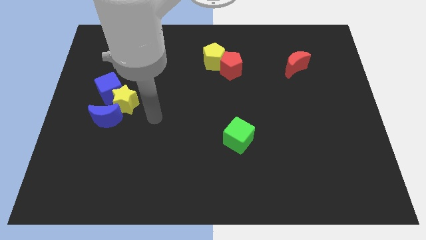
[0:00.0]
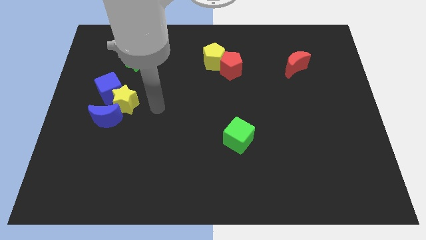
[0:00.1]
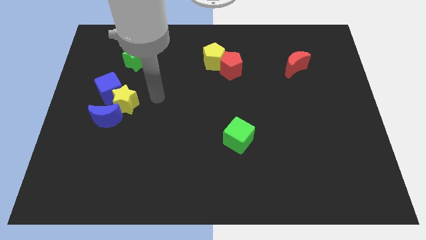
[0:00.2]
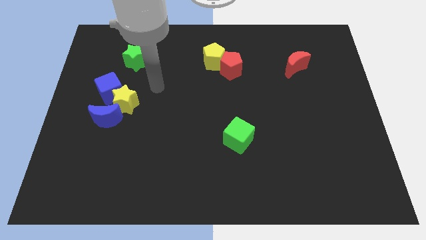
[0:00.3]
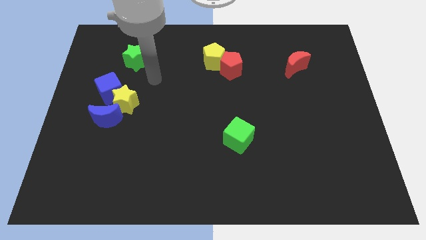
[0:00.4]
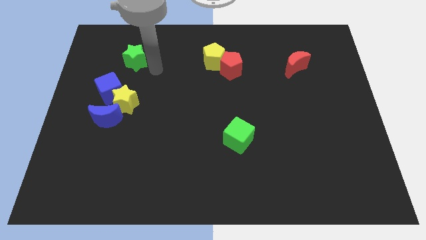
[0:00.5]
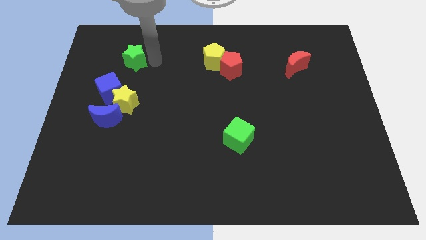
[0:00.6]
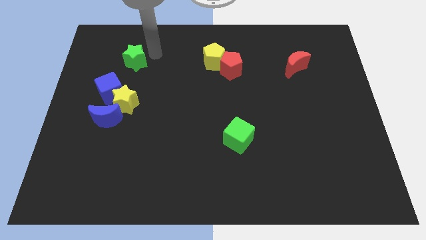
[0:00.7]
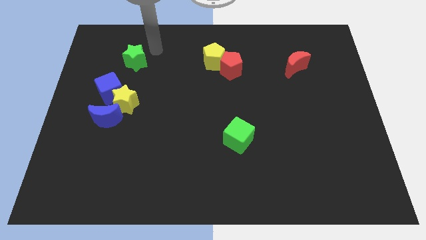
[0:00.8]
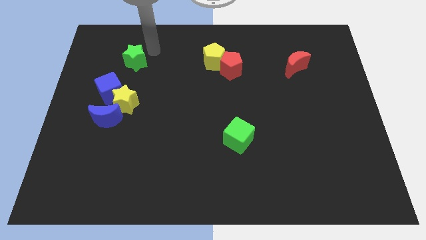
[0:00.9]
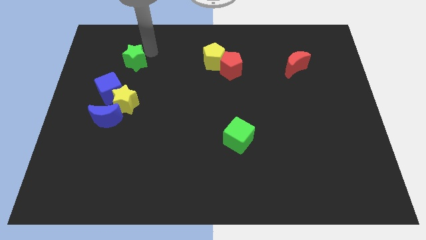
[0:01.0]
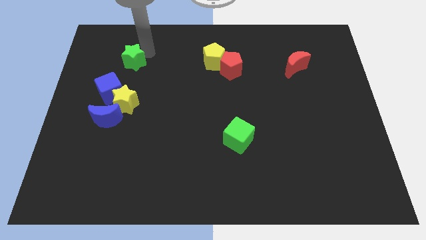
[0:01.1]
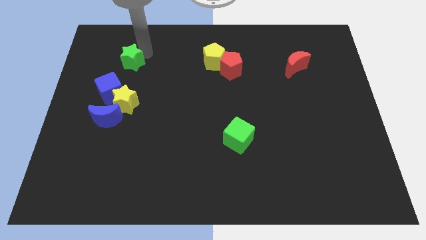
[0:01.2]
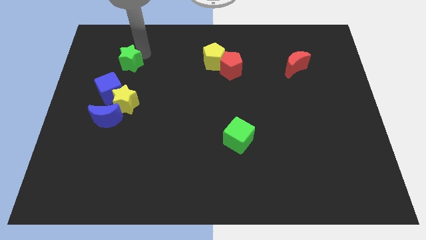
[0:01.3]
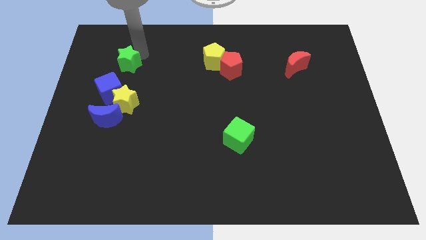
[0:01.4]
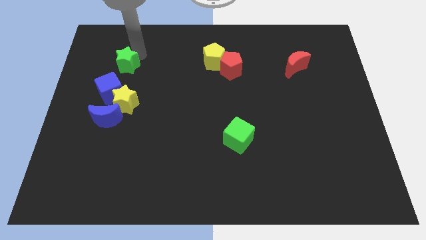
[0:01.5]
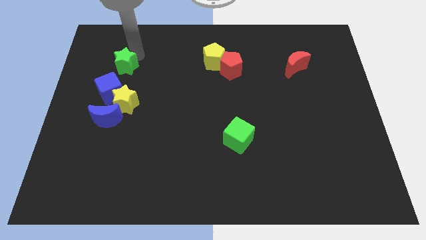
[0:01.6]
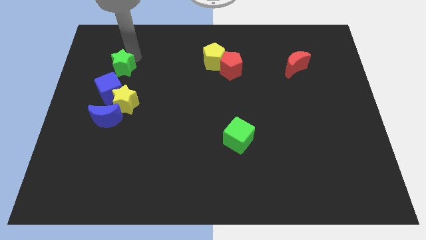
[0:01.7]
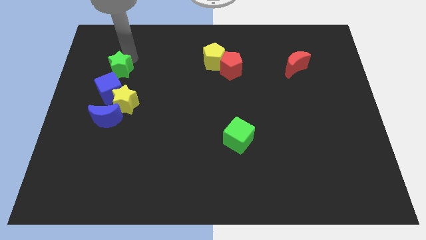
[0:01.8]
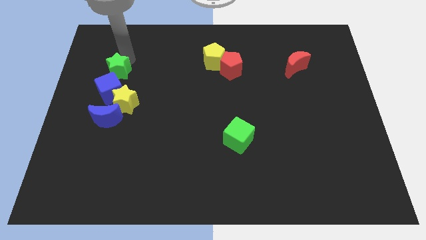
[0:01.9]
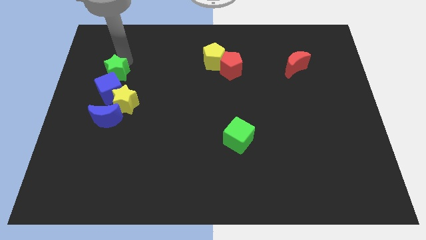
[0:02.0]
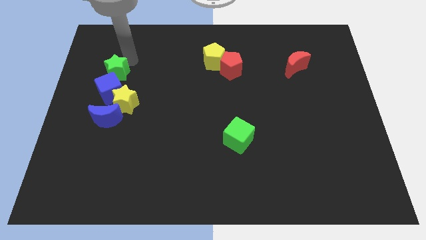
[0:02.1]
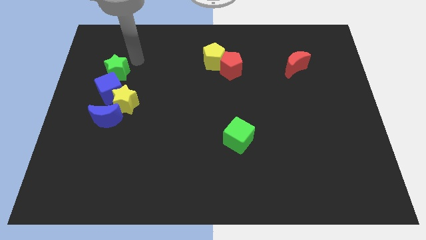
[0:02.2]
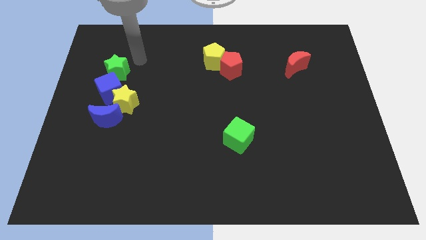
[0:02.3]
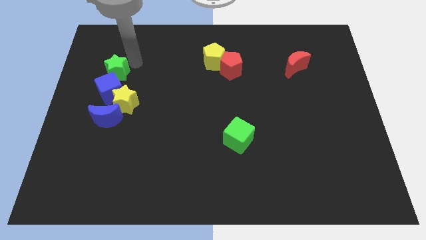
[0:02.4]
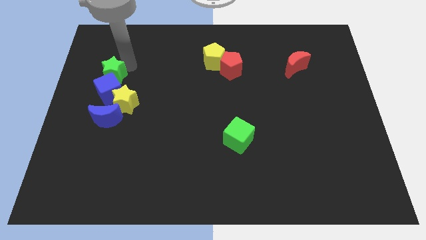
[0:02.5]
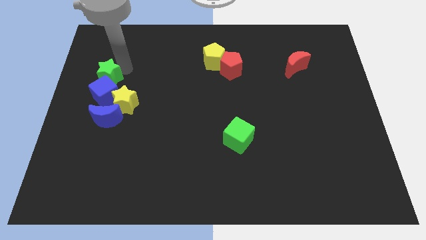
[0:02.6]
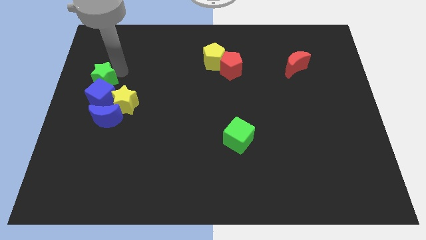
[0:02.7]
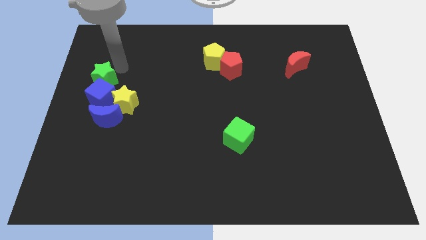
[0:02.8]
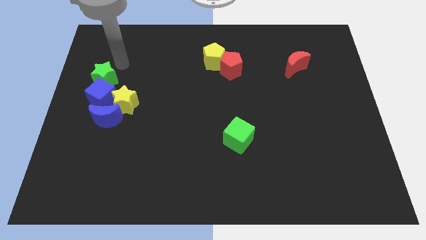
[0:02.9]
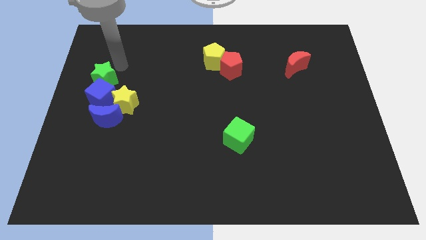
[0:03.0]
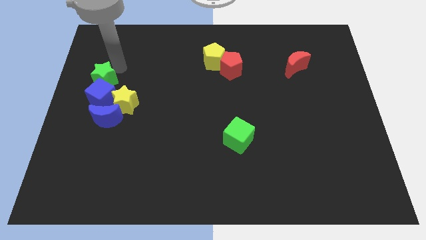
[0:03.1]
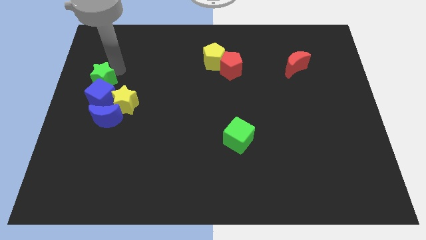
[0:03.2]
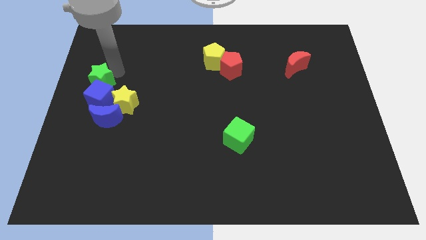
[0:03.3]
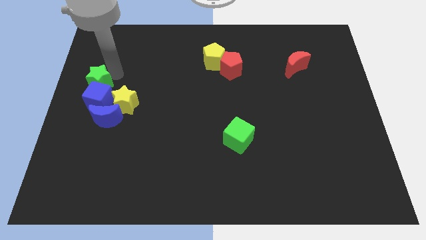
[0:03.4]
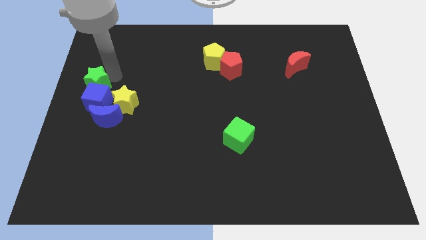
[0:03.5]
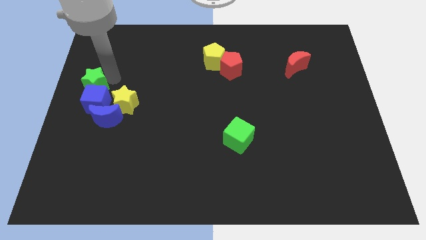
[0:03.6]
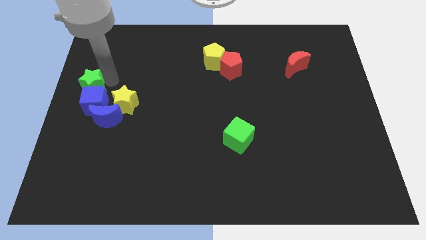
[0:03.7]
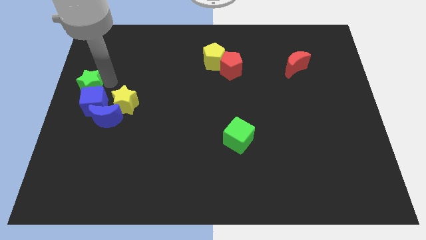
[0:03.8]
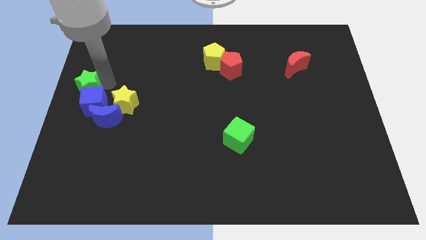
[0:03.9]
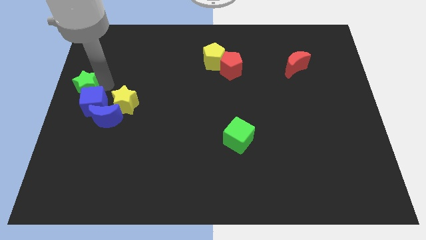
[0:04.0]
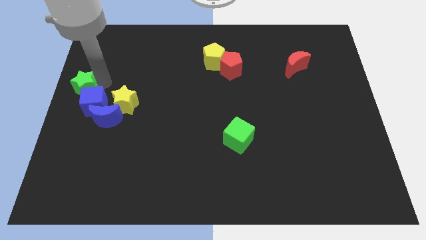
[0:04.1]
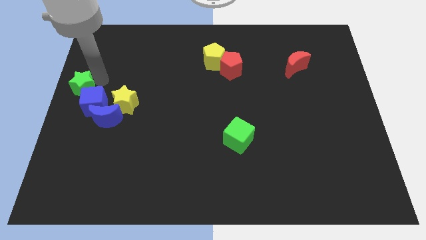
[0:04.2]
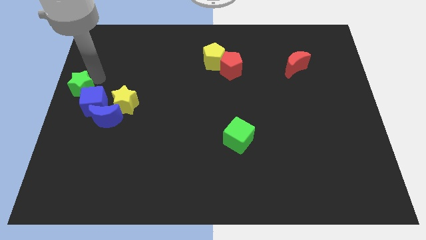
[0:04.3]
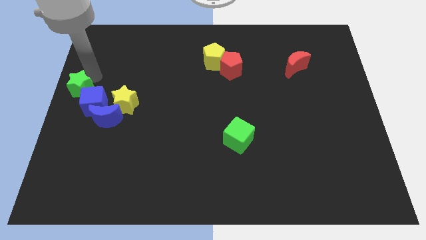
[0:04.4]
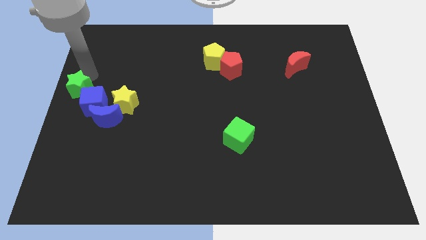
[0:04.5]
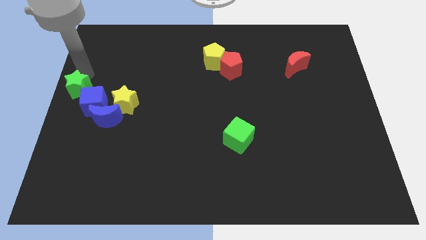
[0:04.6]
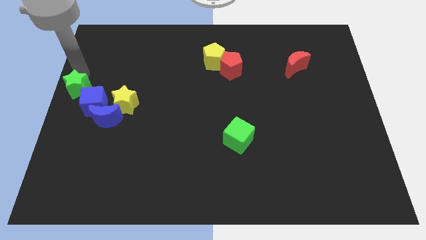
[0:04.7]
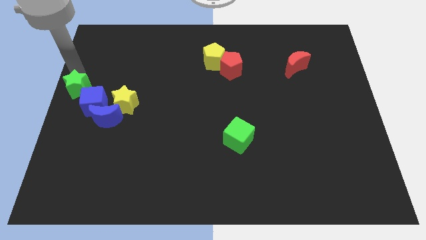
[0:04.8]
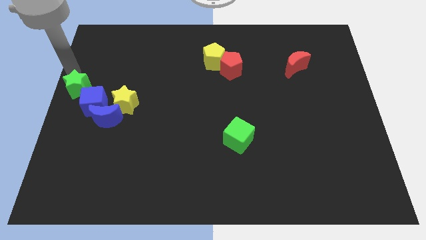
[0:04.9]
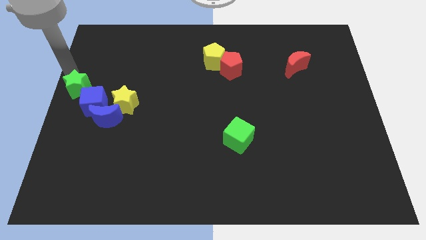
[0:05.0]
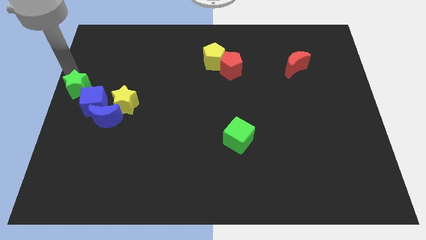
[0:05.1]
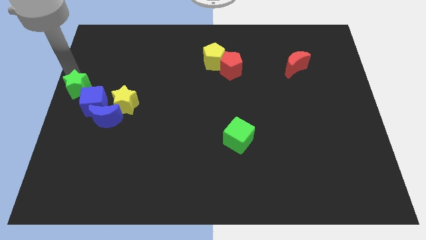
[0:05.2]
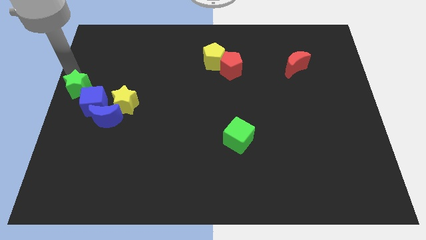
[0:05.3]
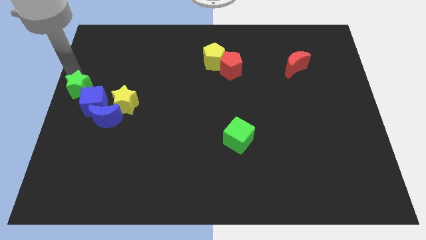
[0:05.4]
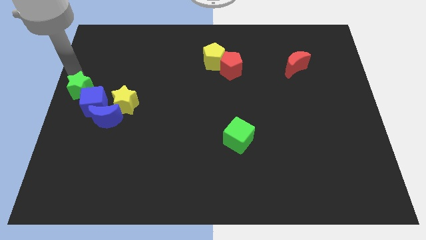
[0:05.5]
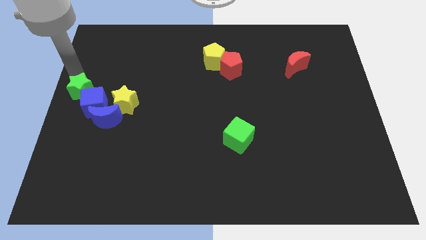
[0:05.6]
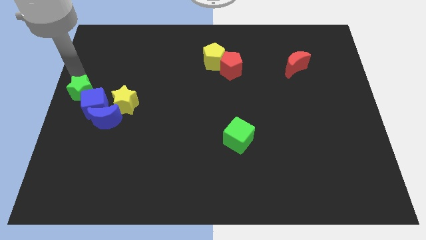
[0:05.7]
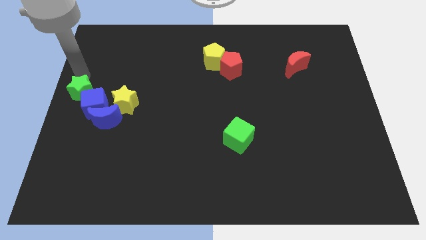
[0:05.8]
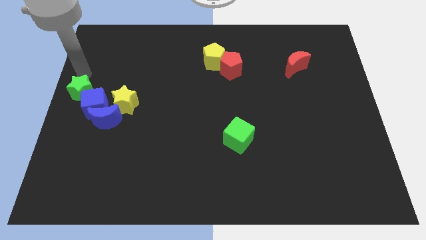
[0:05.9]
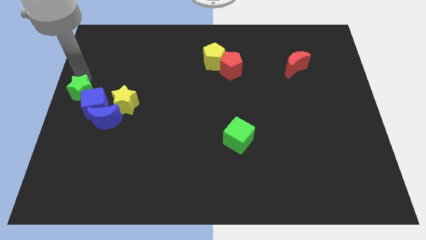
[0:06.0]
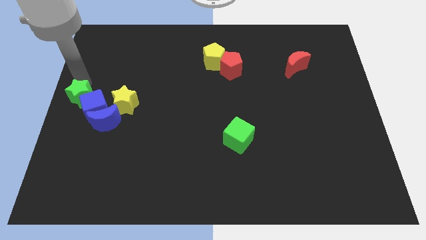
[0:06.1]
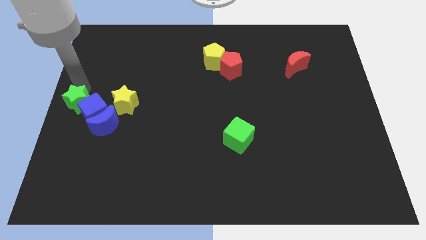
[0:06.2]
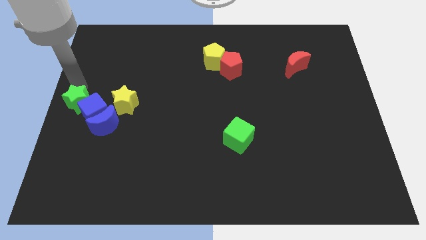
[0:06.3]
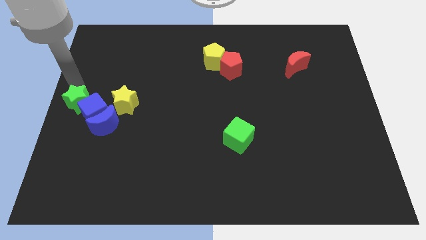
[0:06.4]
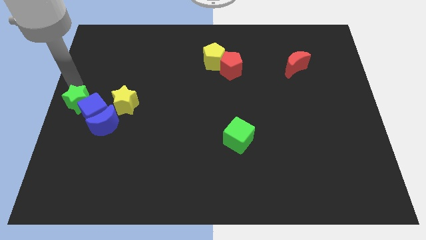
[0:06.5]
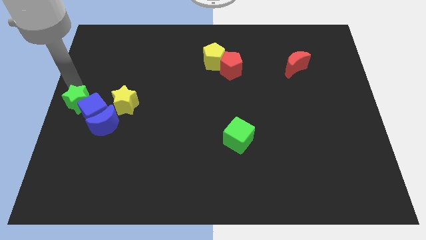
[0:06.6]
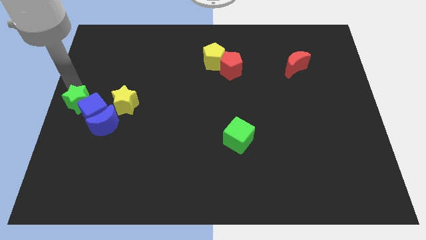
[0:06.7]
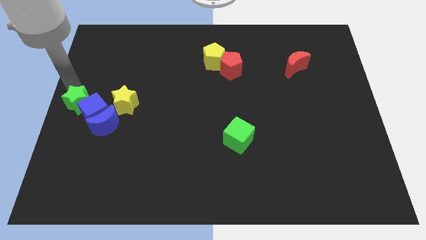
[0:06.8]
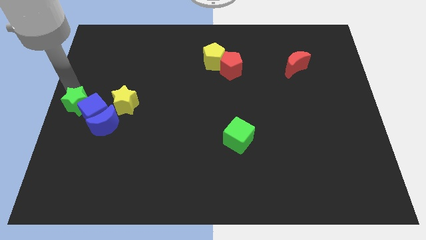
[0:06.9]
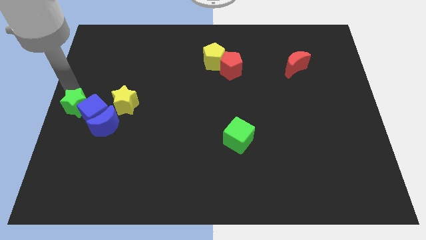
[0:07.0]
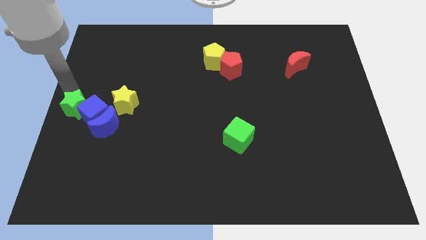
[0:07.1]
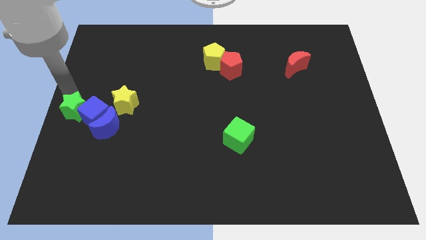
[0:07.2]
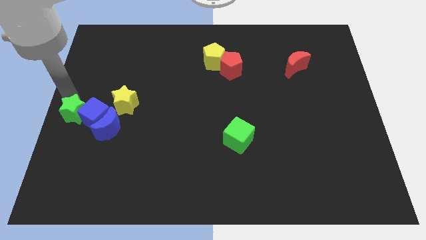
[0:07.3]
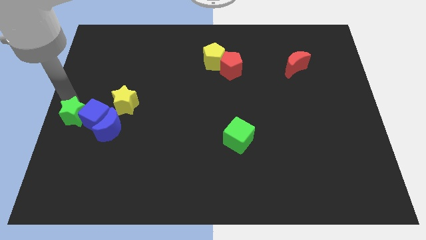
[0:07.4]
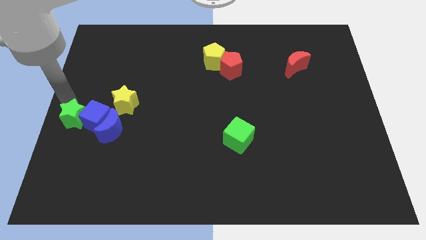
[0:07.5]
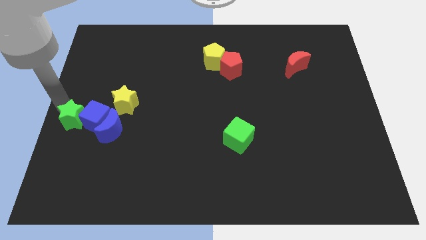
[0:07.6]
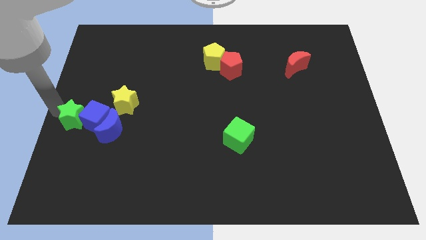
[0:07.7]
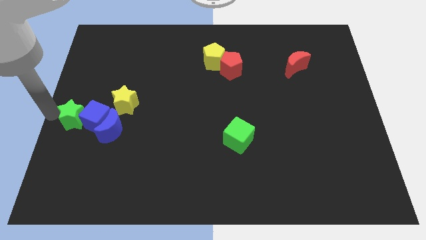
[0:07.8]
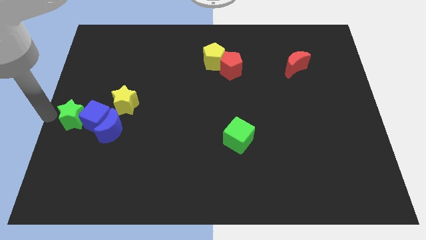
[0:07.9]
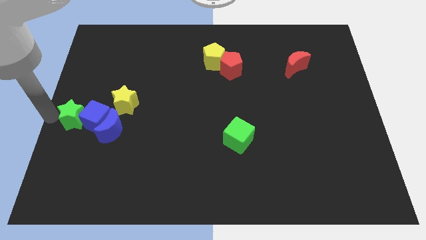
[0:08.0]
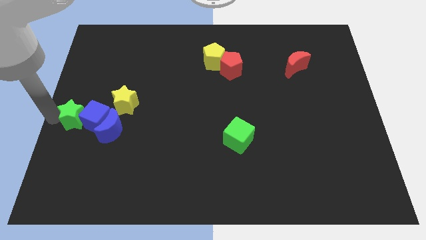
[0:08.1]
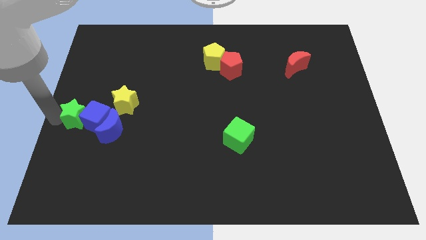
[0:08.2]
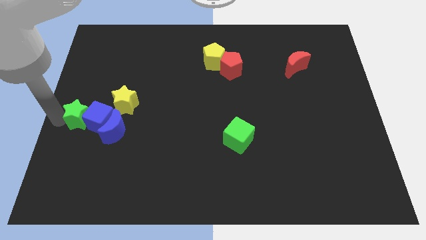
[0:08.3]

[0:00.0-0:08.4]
slide the green star diagonally down and to the left of the yellow star
